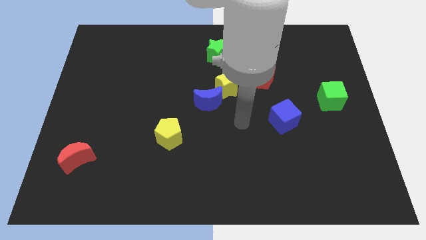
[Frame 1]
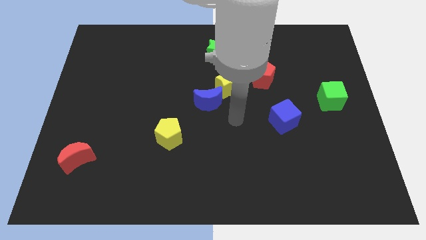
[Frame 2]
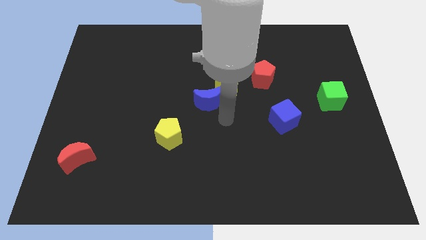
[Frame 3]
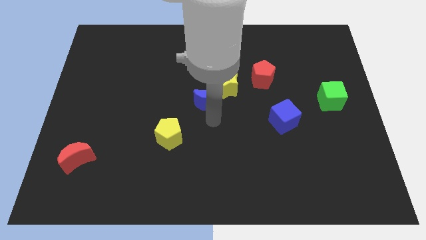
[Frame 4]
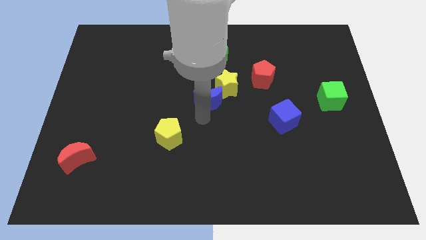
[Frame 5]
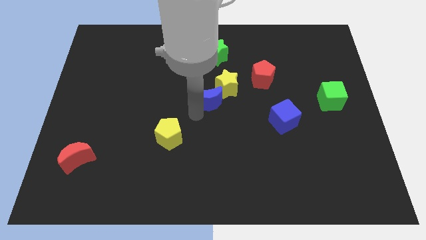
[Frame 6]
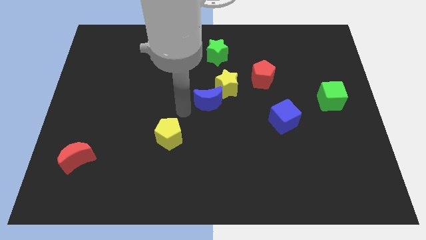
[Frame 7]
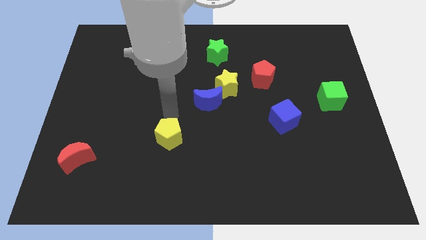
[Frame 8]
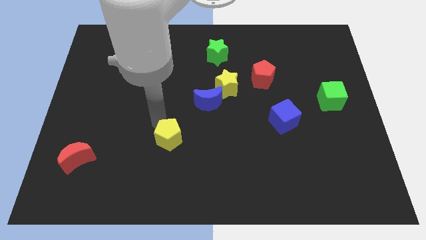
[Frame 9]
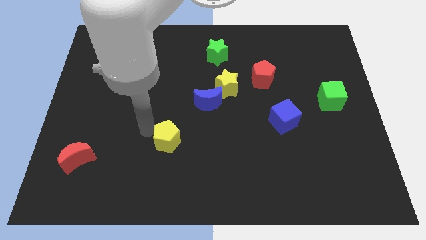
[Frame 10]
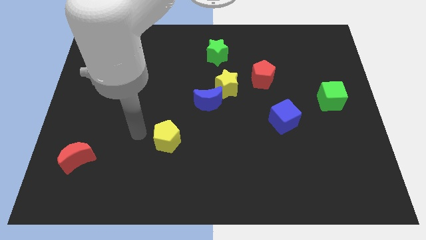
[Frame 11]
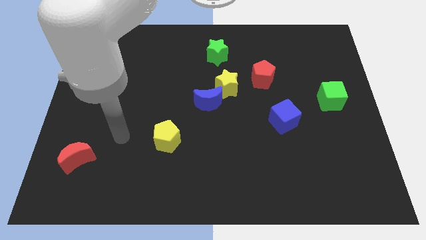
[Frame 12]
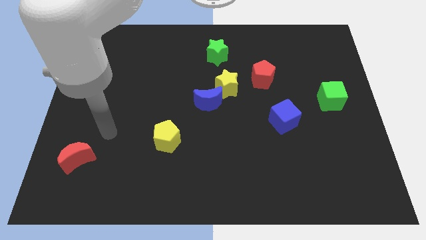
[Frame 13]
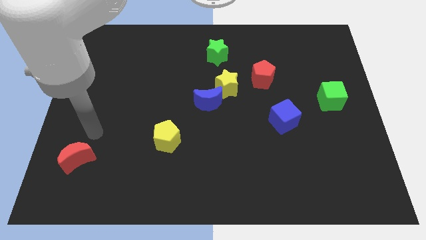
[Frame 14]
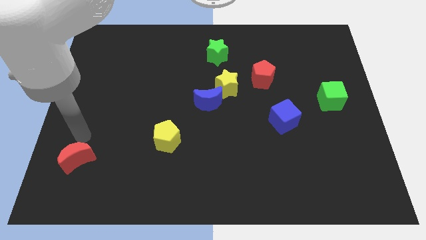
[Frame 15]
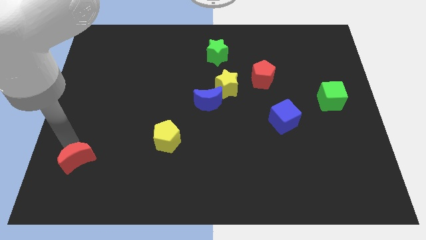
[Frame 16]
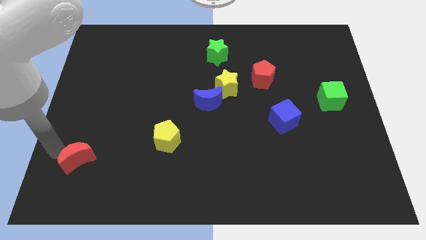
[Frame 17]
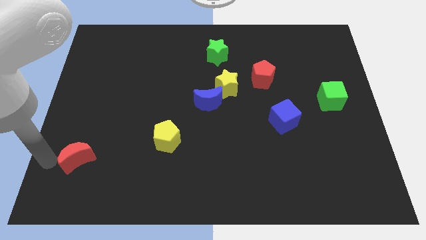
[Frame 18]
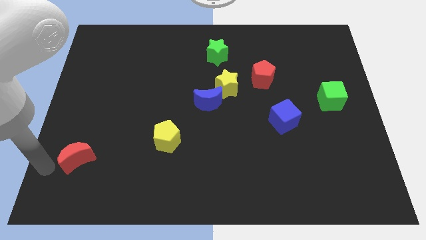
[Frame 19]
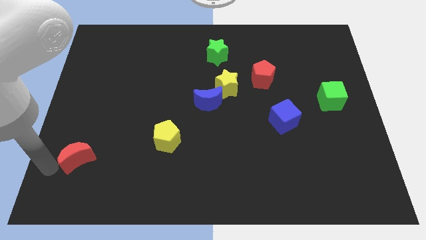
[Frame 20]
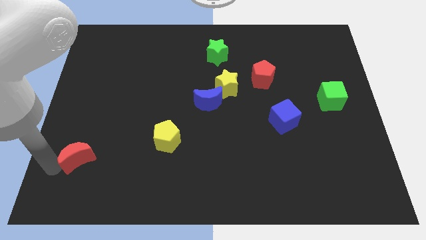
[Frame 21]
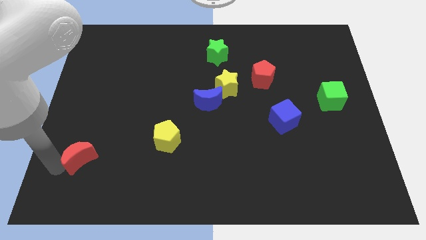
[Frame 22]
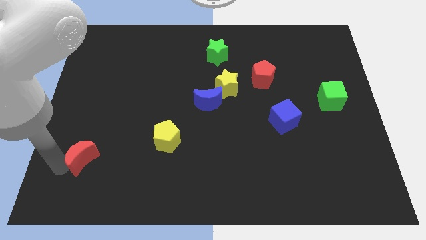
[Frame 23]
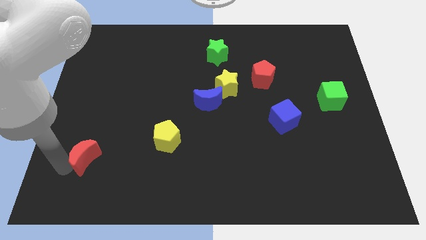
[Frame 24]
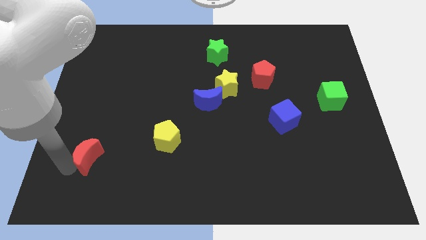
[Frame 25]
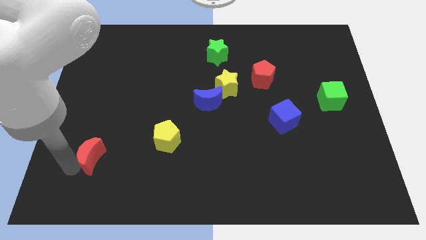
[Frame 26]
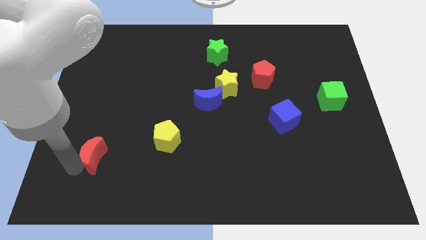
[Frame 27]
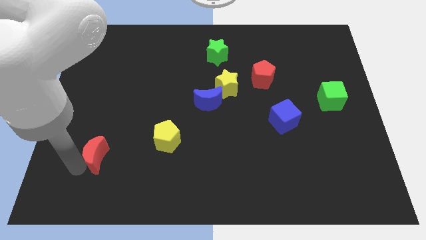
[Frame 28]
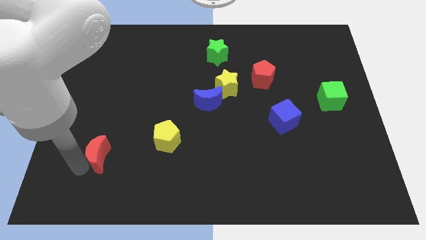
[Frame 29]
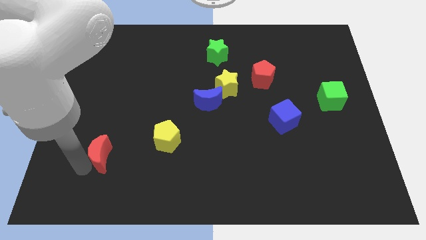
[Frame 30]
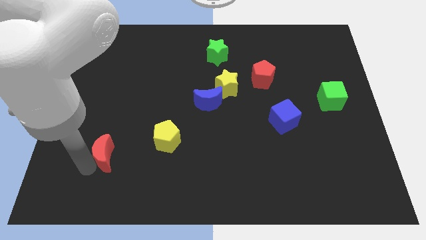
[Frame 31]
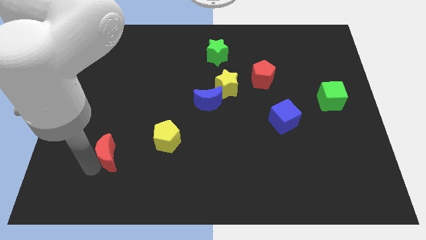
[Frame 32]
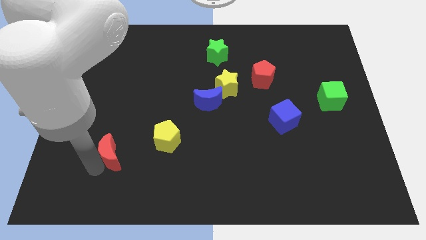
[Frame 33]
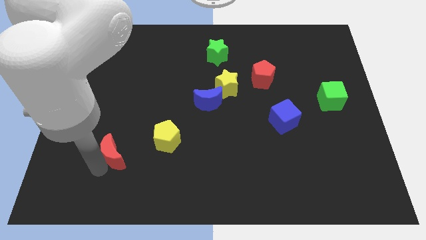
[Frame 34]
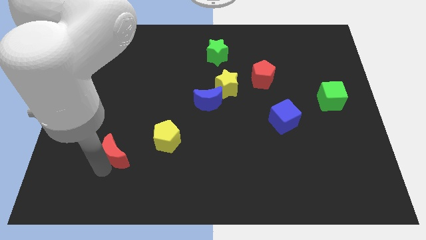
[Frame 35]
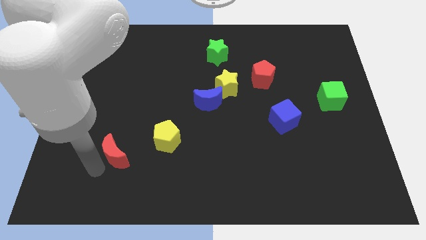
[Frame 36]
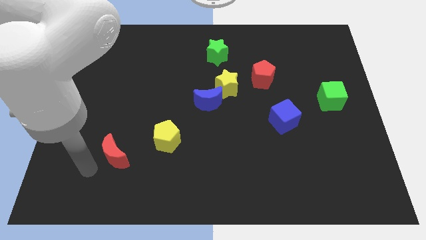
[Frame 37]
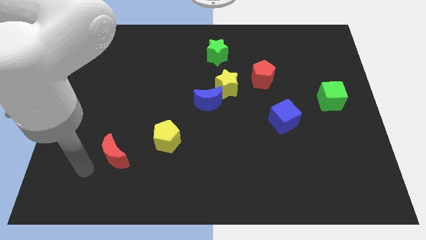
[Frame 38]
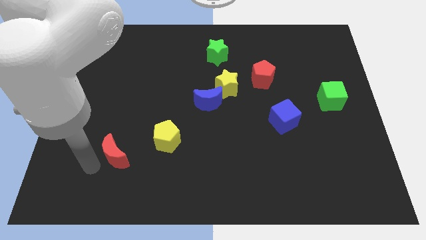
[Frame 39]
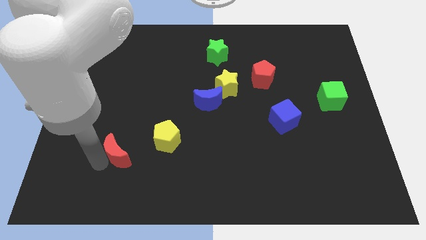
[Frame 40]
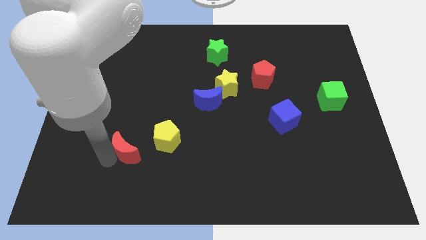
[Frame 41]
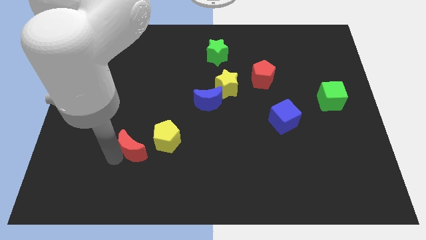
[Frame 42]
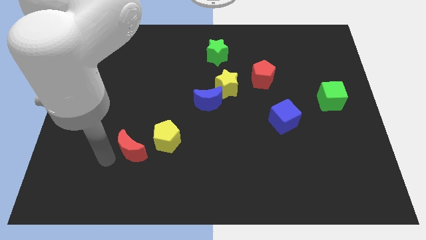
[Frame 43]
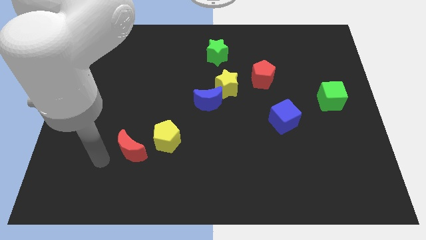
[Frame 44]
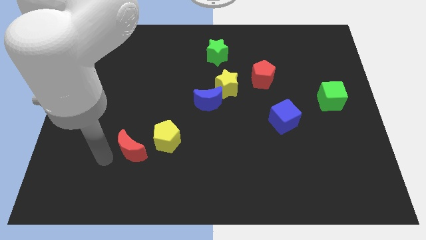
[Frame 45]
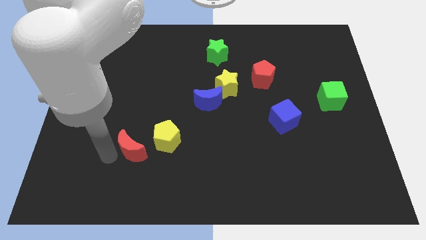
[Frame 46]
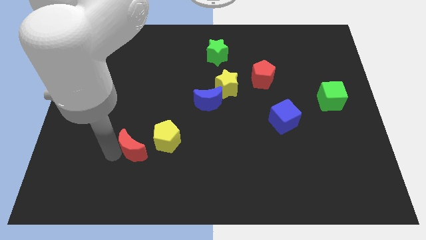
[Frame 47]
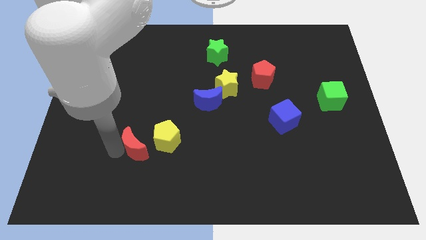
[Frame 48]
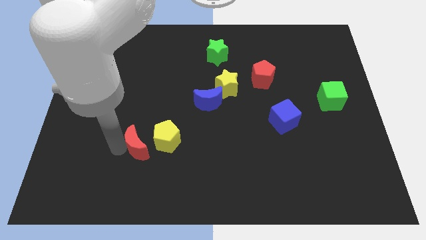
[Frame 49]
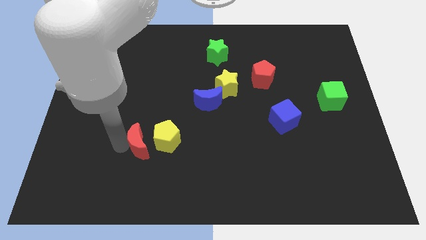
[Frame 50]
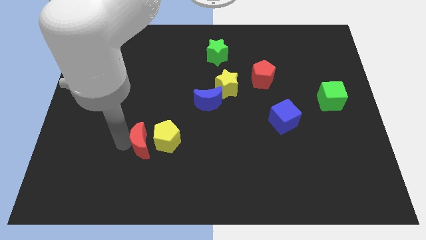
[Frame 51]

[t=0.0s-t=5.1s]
push the red moon towards the yellow pentagon

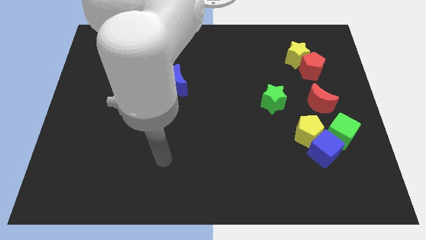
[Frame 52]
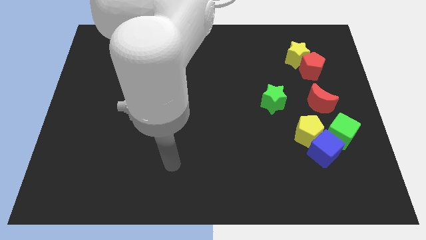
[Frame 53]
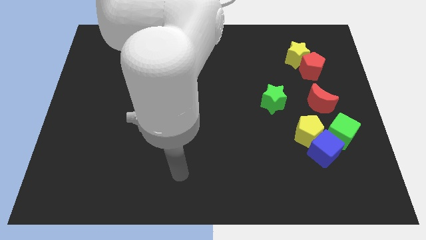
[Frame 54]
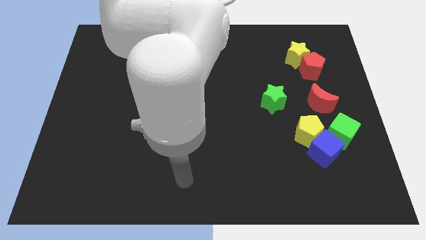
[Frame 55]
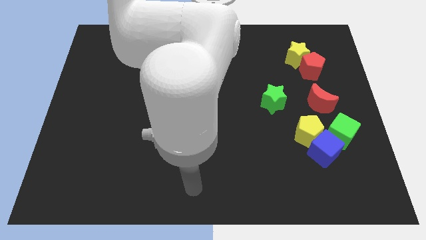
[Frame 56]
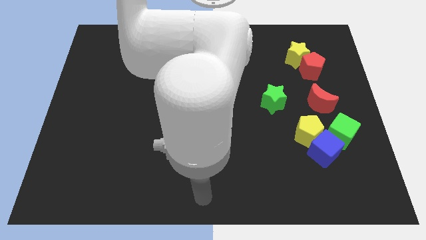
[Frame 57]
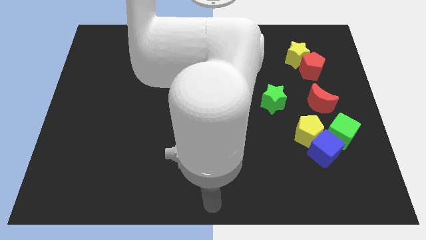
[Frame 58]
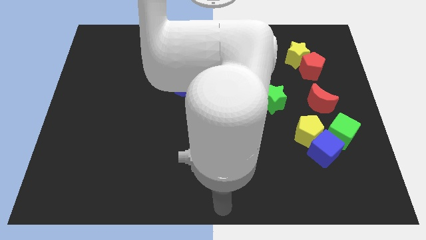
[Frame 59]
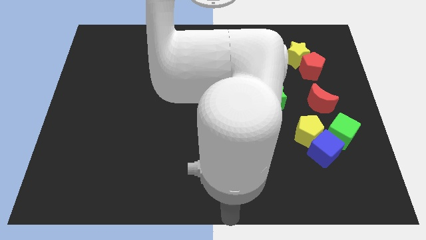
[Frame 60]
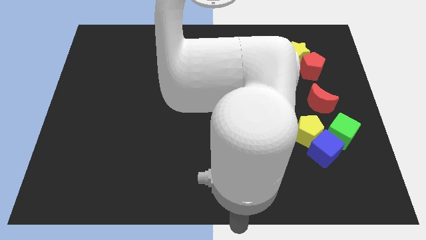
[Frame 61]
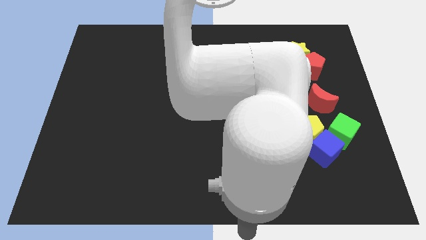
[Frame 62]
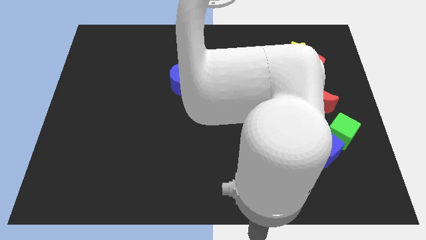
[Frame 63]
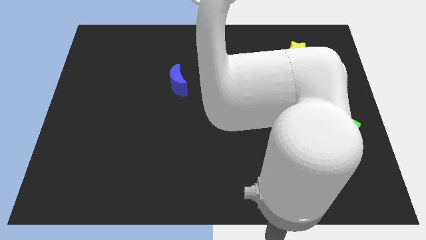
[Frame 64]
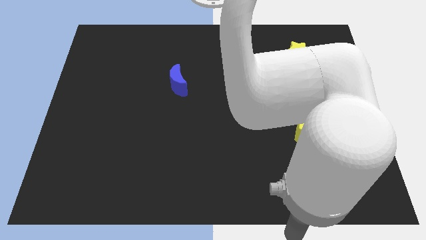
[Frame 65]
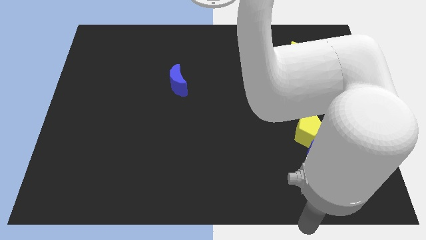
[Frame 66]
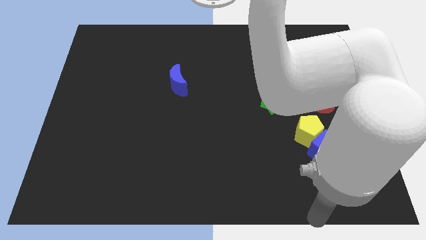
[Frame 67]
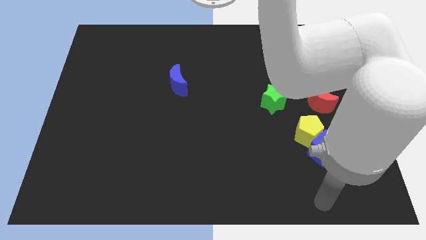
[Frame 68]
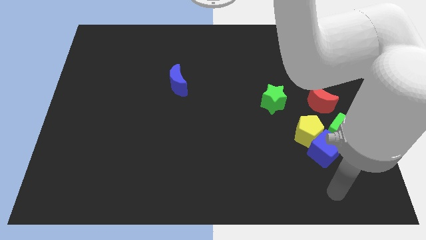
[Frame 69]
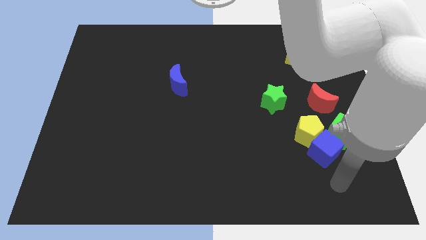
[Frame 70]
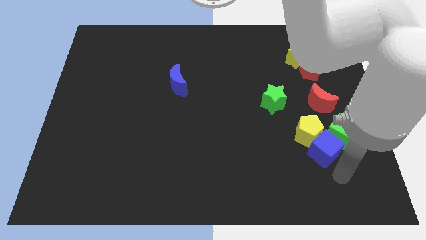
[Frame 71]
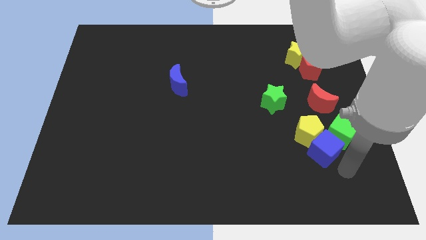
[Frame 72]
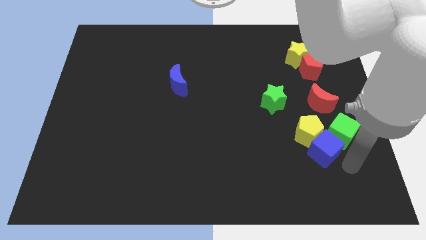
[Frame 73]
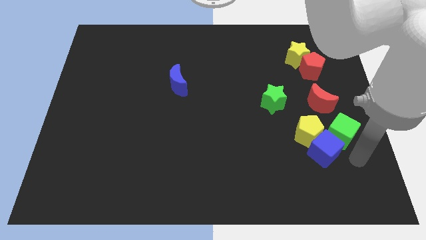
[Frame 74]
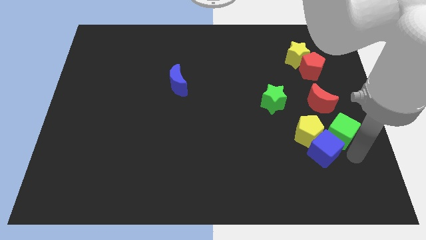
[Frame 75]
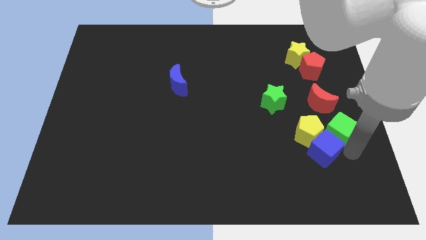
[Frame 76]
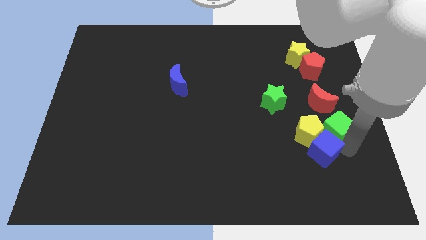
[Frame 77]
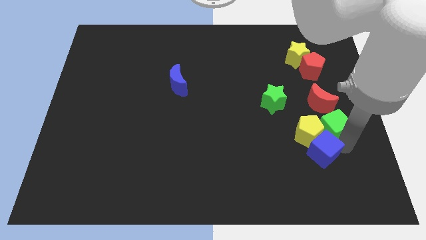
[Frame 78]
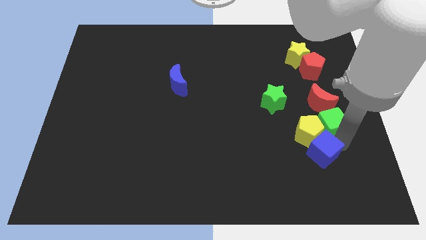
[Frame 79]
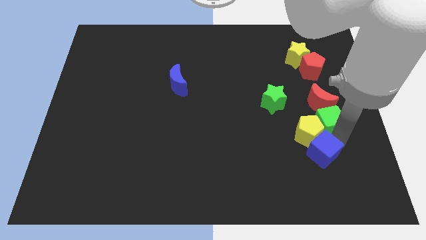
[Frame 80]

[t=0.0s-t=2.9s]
move the green cube next to the red moon

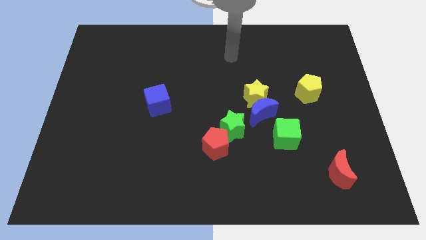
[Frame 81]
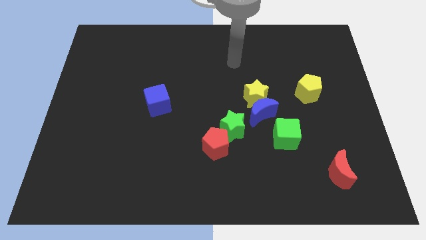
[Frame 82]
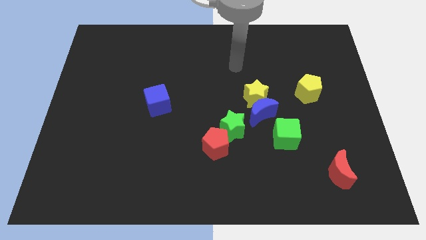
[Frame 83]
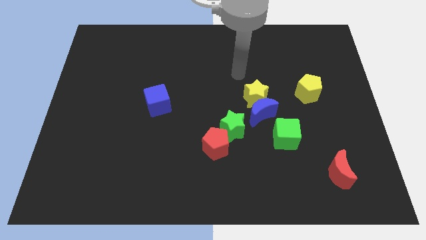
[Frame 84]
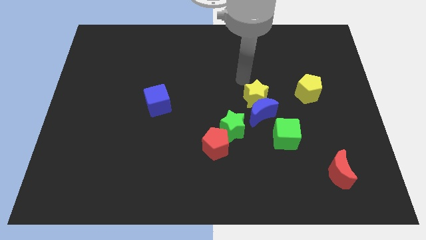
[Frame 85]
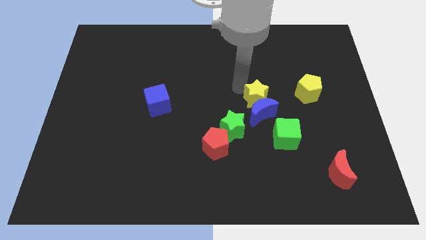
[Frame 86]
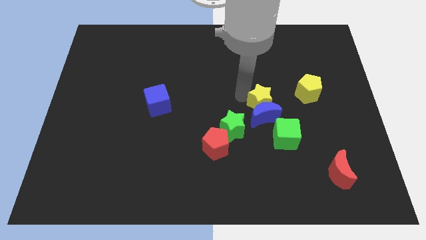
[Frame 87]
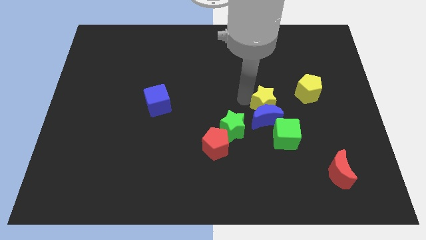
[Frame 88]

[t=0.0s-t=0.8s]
move the blue moon towards the green cube
